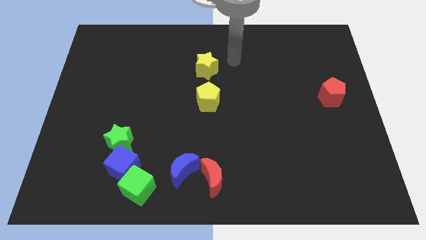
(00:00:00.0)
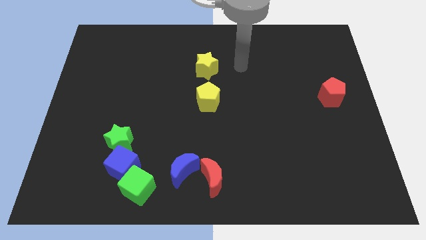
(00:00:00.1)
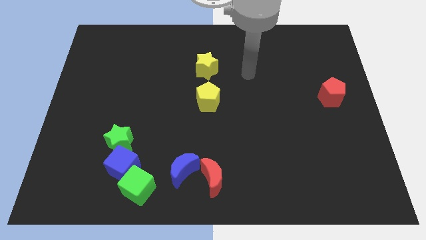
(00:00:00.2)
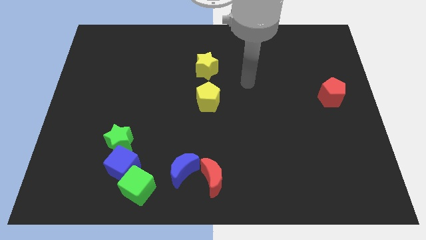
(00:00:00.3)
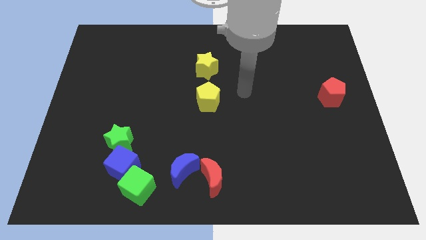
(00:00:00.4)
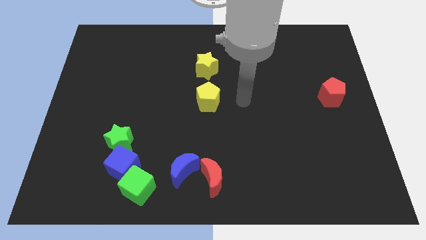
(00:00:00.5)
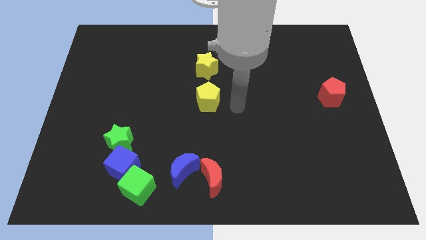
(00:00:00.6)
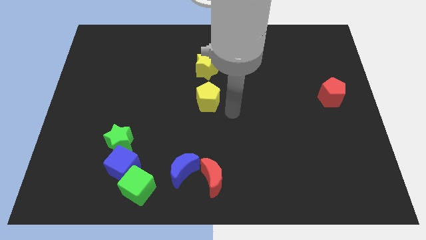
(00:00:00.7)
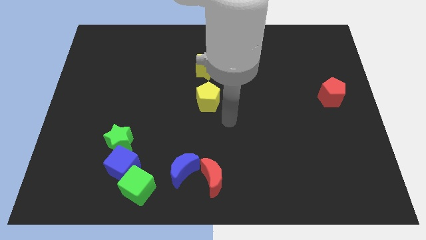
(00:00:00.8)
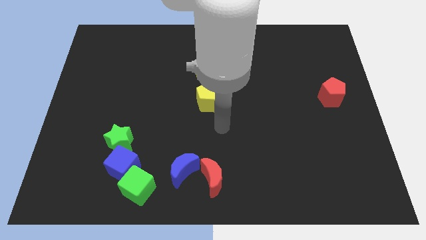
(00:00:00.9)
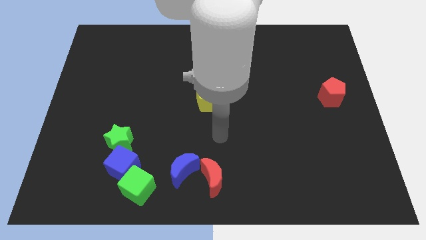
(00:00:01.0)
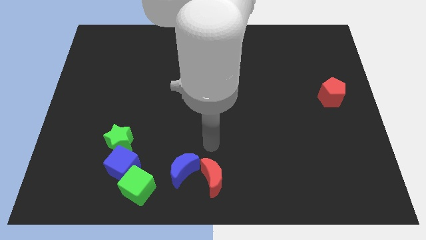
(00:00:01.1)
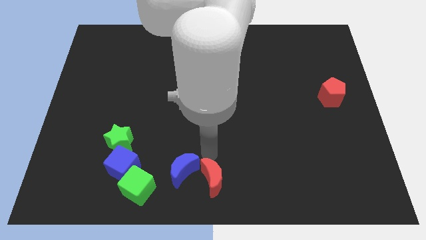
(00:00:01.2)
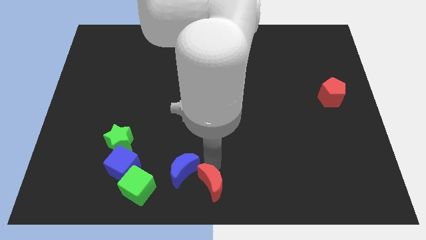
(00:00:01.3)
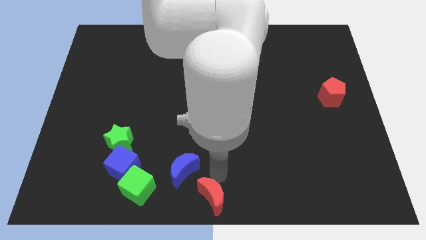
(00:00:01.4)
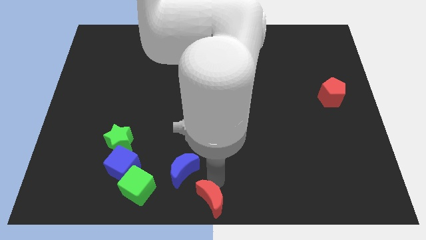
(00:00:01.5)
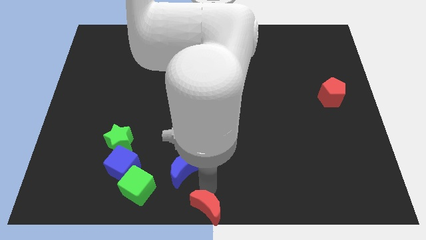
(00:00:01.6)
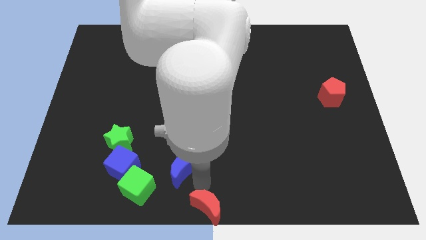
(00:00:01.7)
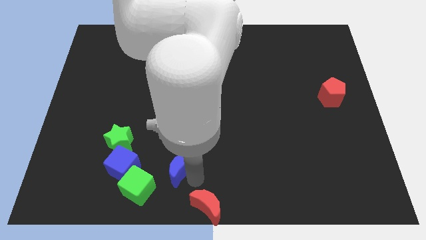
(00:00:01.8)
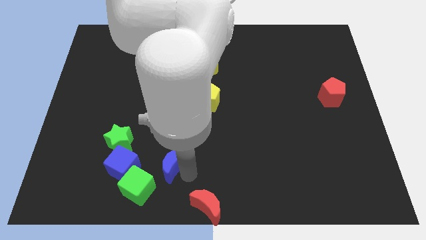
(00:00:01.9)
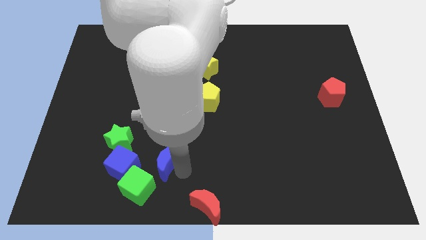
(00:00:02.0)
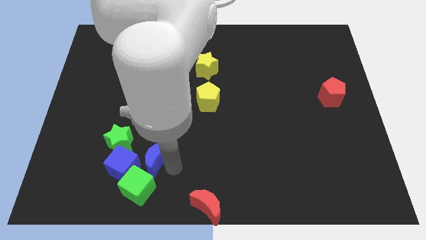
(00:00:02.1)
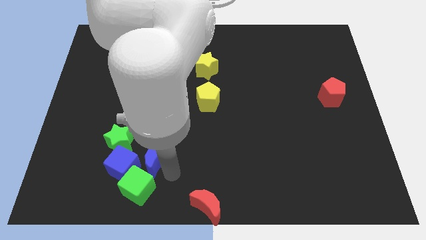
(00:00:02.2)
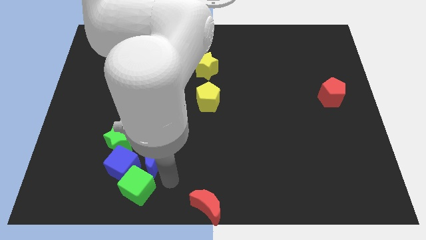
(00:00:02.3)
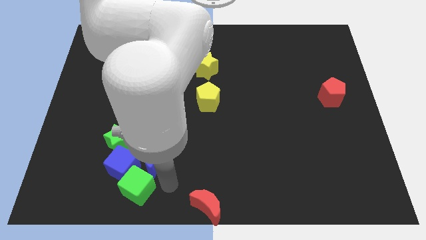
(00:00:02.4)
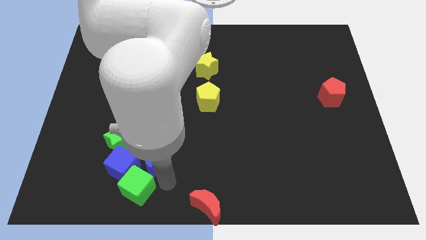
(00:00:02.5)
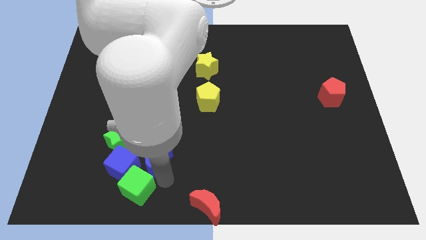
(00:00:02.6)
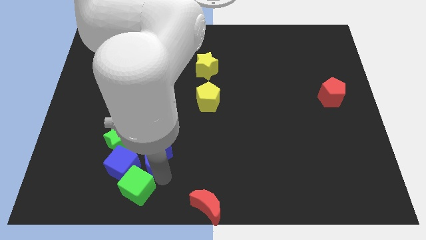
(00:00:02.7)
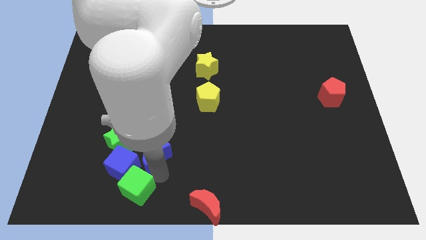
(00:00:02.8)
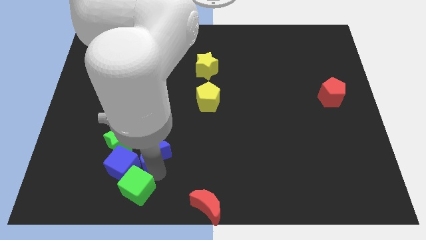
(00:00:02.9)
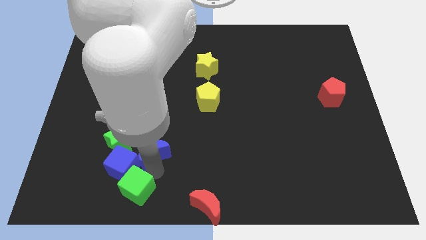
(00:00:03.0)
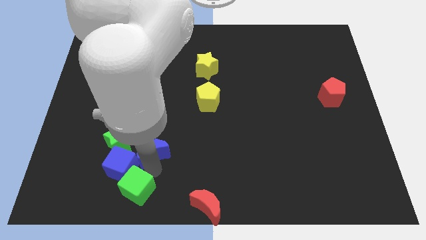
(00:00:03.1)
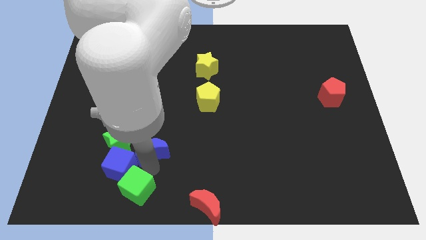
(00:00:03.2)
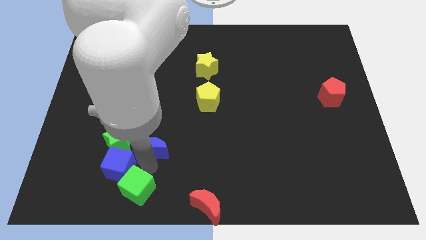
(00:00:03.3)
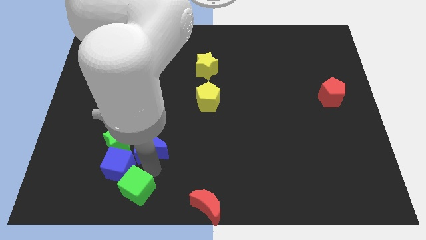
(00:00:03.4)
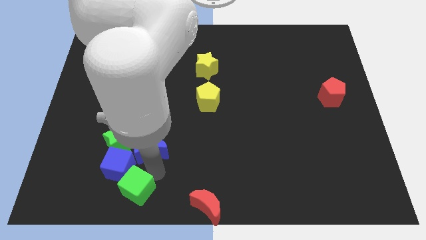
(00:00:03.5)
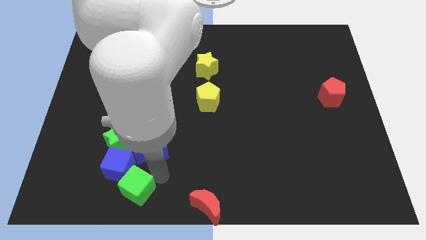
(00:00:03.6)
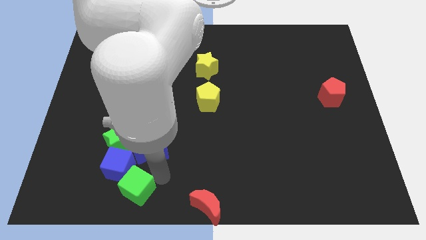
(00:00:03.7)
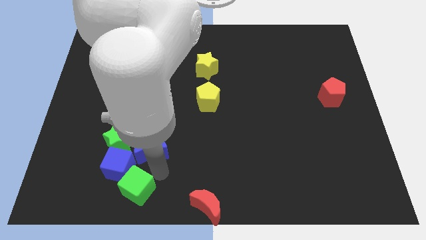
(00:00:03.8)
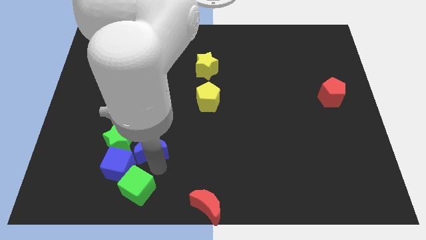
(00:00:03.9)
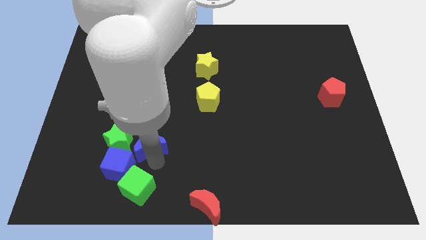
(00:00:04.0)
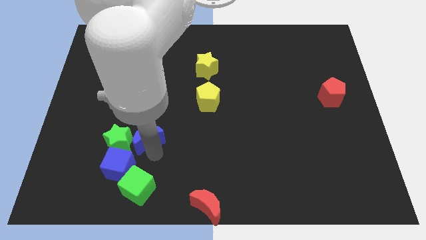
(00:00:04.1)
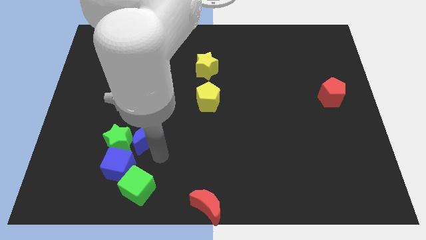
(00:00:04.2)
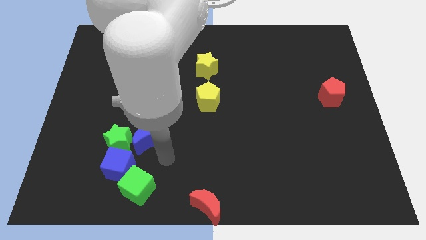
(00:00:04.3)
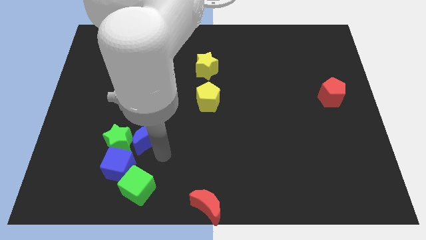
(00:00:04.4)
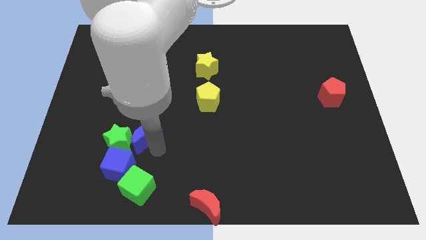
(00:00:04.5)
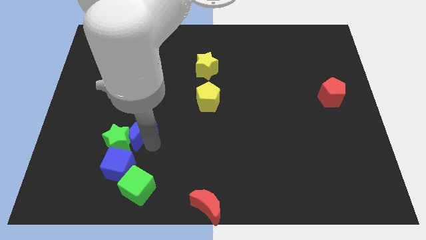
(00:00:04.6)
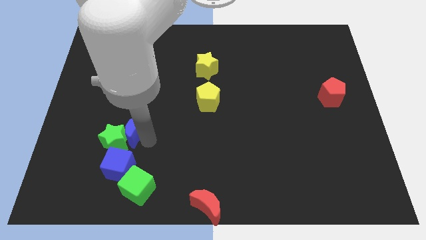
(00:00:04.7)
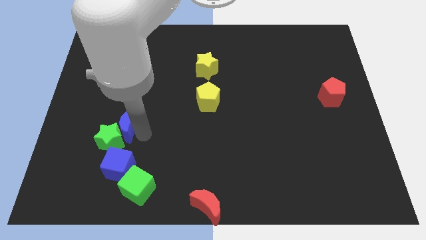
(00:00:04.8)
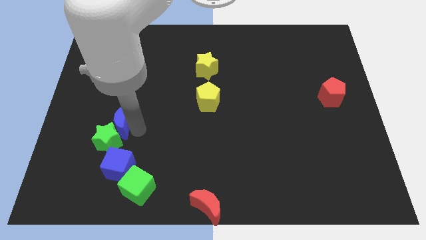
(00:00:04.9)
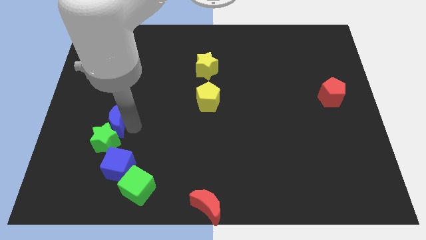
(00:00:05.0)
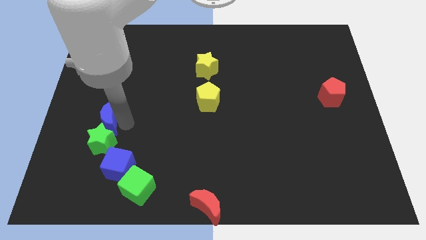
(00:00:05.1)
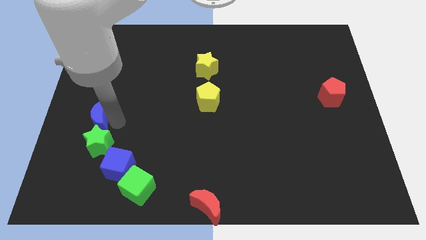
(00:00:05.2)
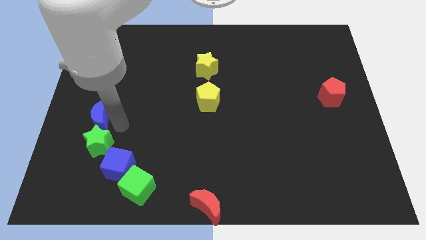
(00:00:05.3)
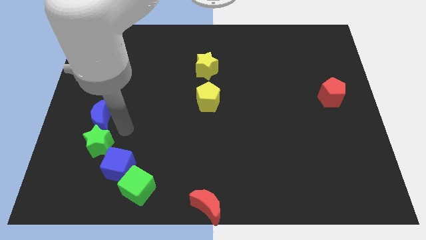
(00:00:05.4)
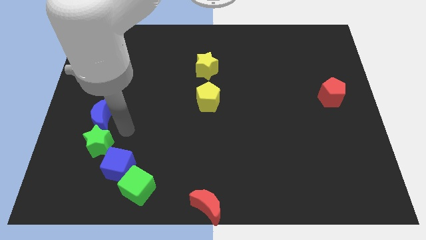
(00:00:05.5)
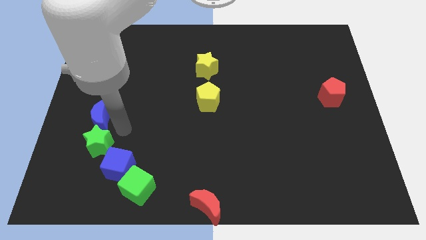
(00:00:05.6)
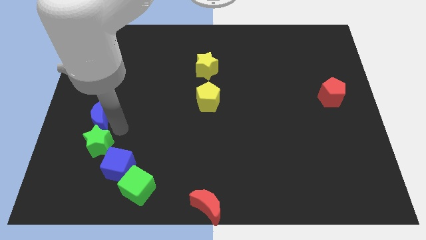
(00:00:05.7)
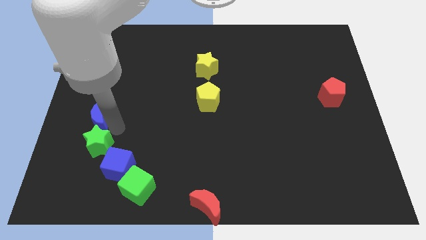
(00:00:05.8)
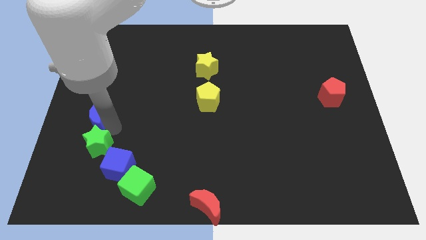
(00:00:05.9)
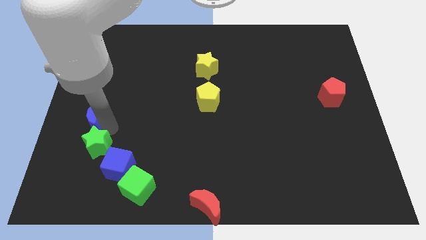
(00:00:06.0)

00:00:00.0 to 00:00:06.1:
move the blue moon to the left side of the board
